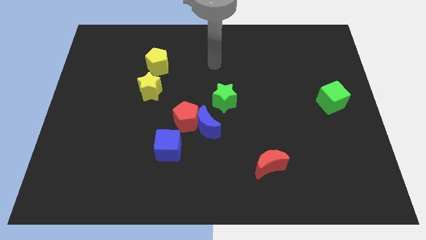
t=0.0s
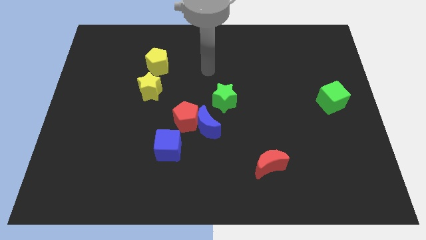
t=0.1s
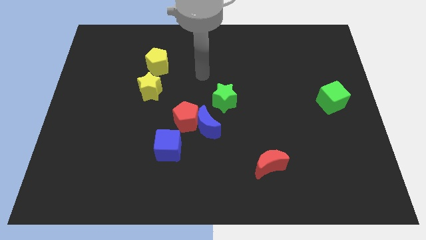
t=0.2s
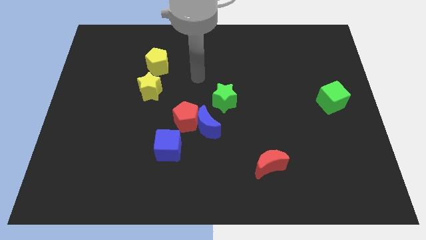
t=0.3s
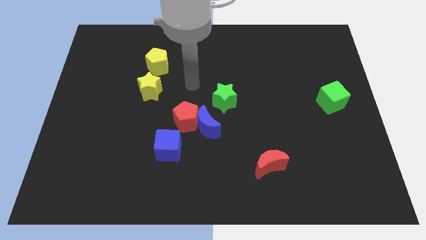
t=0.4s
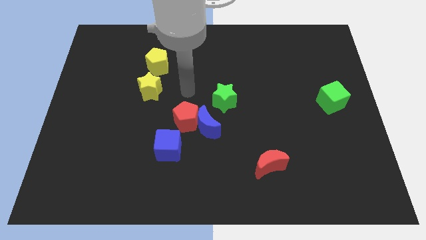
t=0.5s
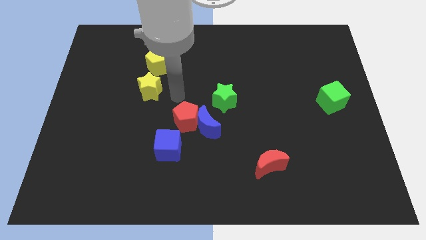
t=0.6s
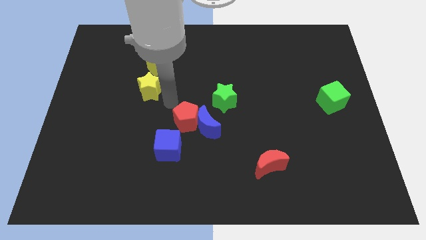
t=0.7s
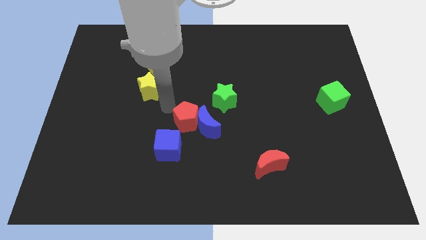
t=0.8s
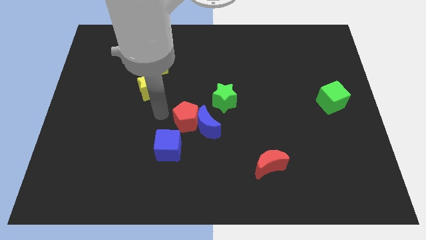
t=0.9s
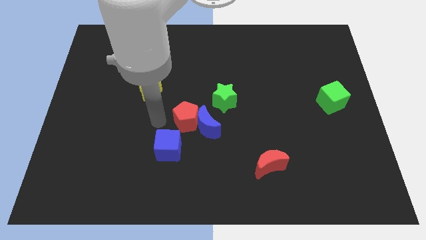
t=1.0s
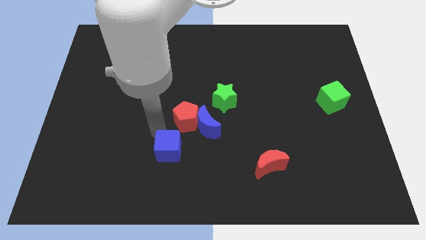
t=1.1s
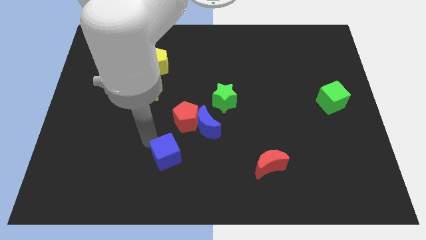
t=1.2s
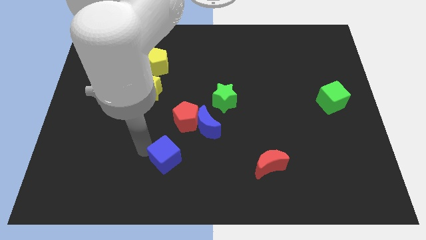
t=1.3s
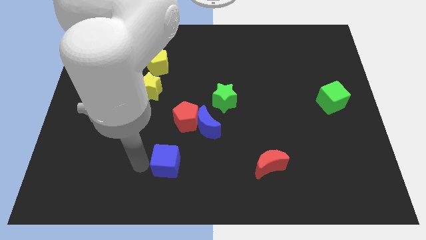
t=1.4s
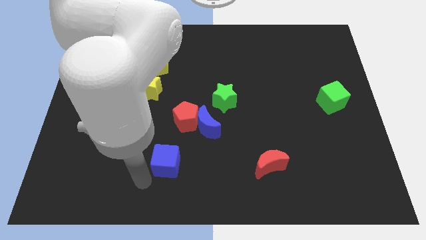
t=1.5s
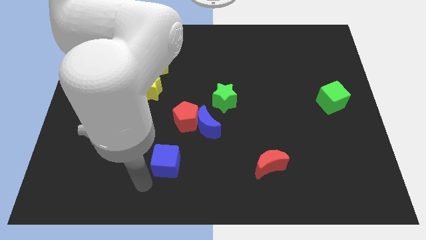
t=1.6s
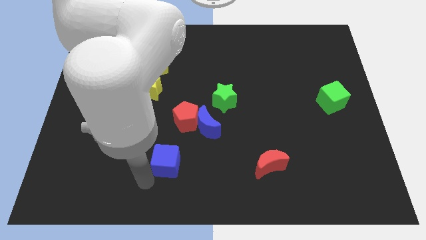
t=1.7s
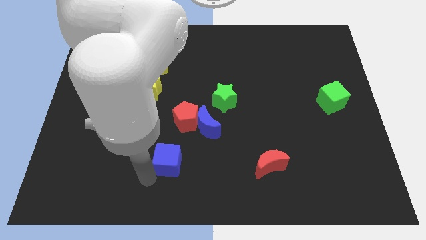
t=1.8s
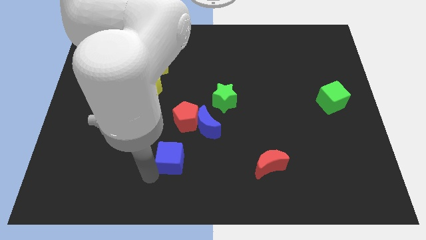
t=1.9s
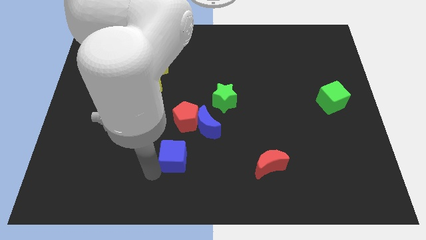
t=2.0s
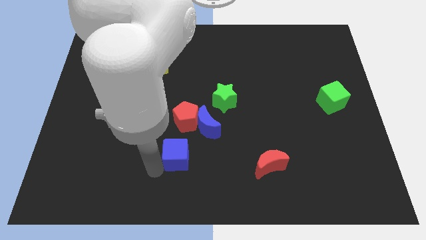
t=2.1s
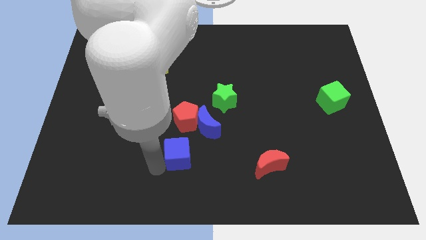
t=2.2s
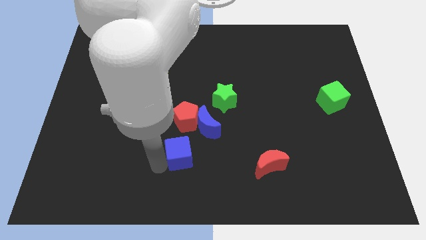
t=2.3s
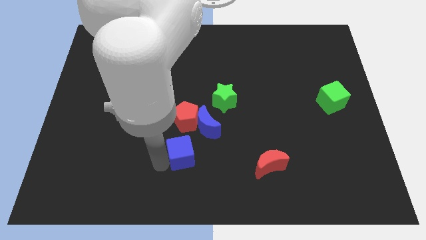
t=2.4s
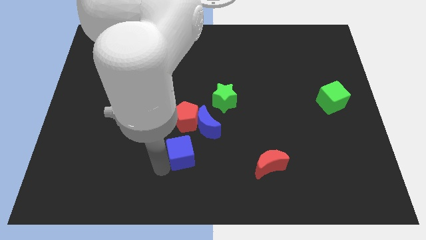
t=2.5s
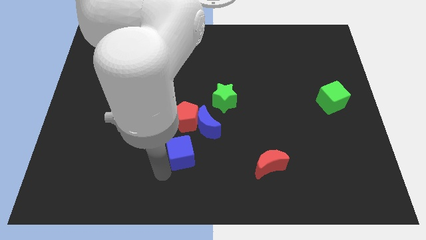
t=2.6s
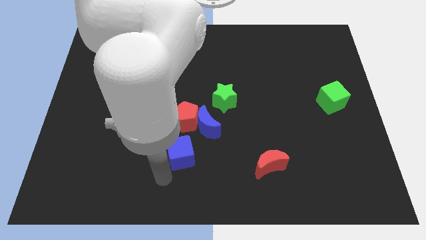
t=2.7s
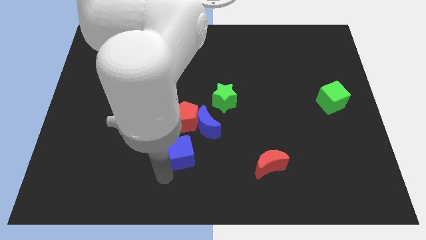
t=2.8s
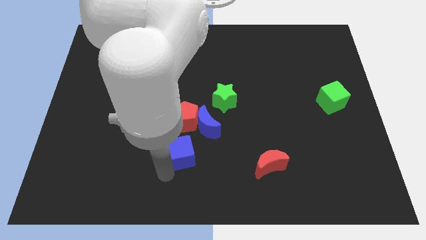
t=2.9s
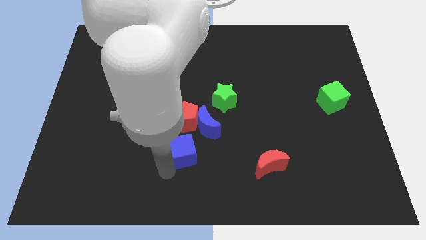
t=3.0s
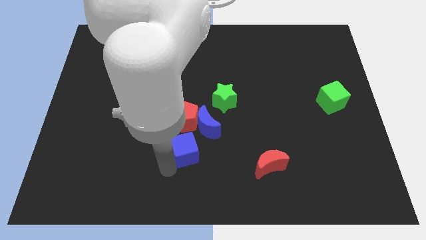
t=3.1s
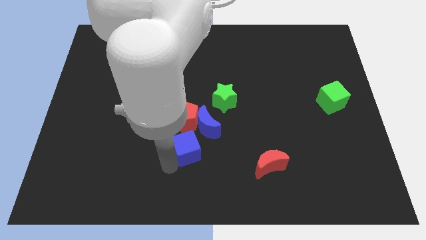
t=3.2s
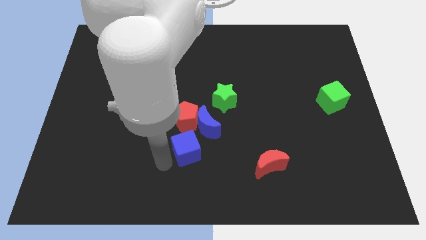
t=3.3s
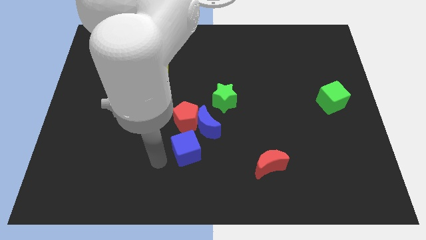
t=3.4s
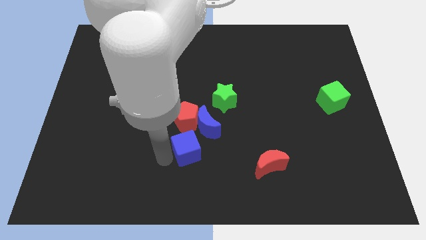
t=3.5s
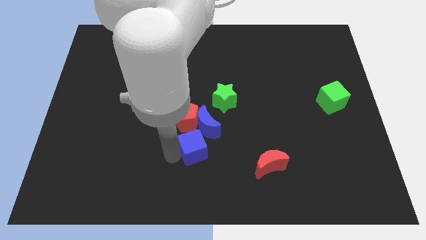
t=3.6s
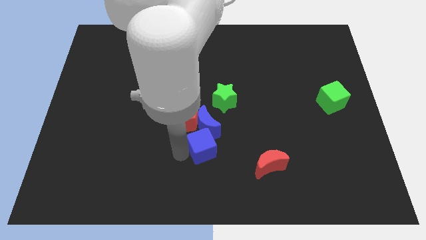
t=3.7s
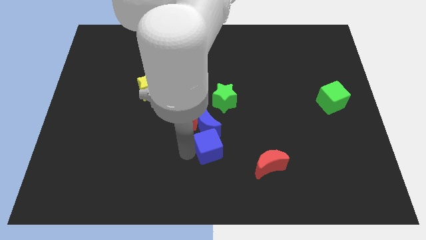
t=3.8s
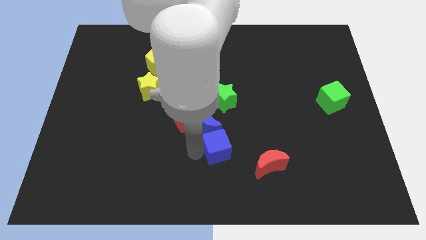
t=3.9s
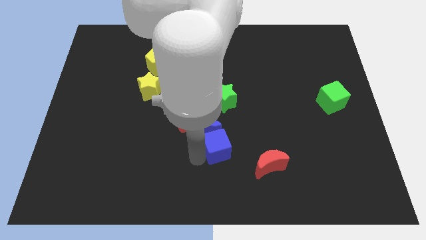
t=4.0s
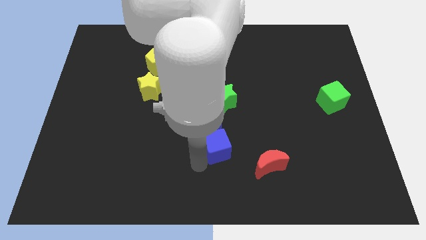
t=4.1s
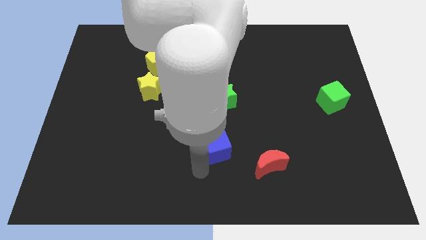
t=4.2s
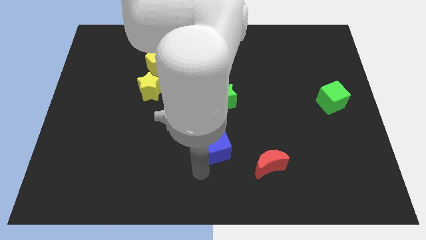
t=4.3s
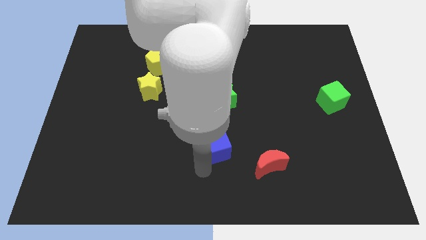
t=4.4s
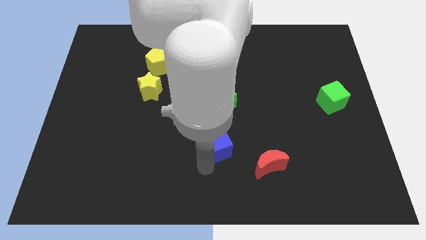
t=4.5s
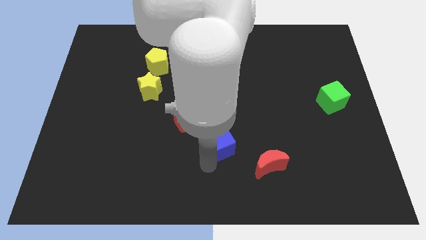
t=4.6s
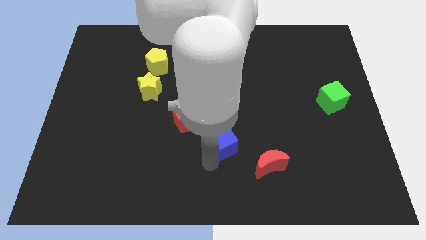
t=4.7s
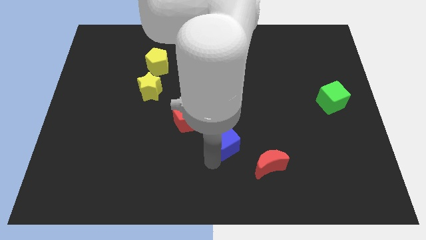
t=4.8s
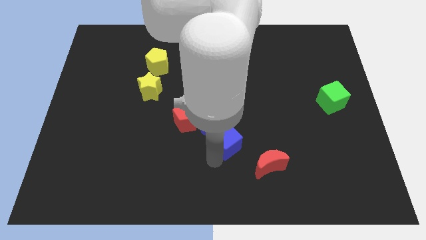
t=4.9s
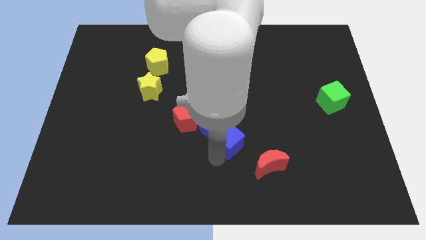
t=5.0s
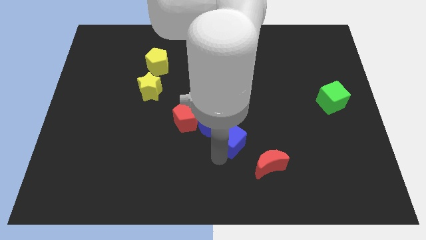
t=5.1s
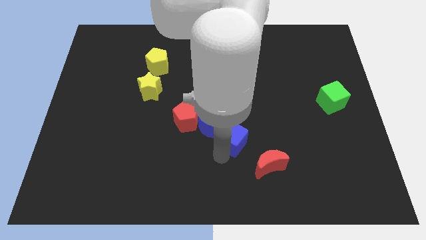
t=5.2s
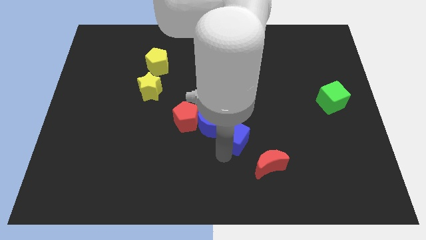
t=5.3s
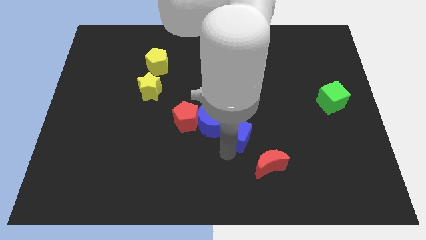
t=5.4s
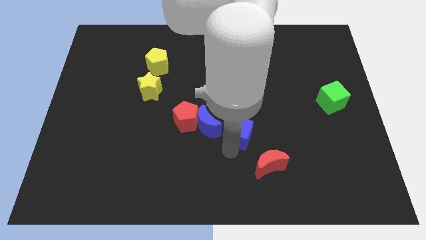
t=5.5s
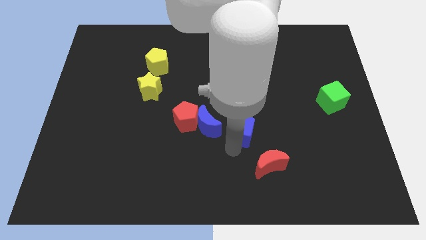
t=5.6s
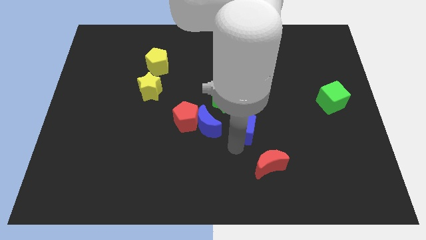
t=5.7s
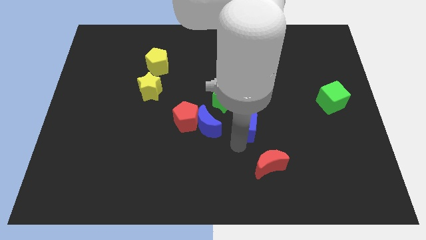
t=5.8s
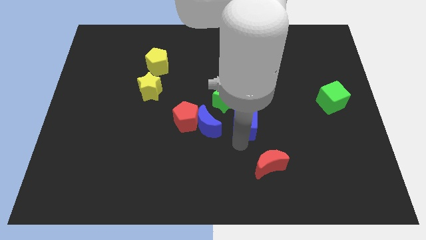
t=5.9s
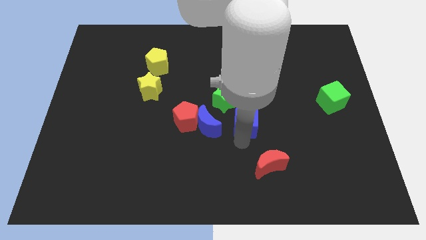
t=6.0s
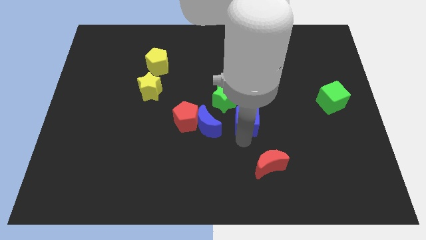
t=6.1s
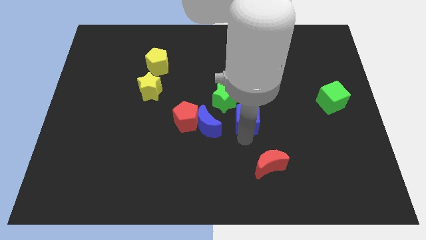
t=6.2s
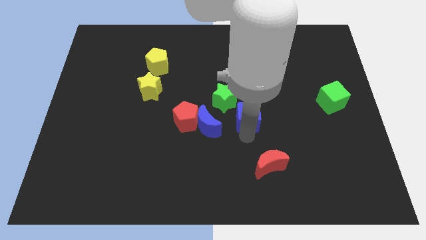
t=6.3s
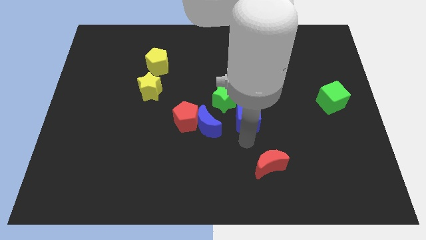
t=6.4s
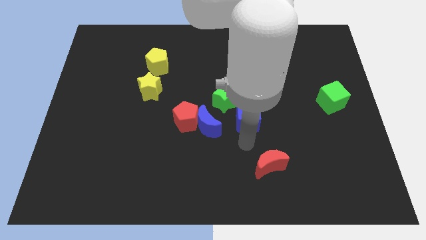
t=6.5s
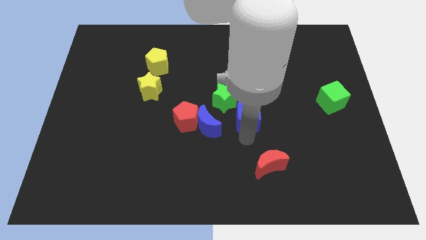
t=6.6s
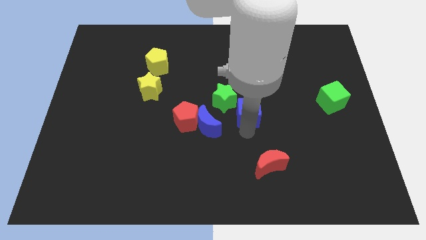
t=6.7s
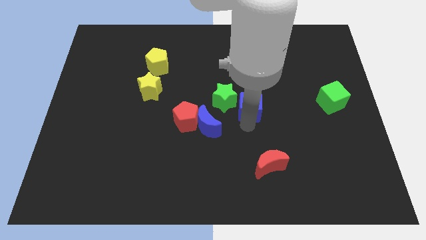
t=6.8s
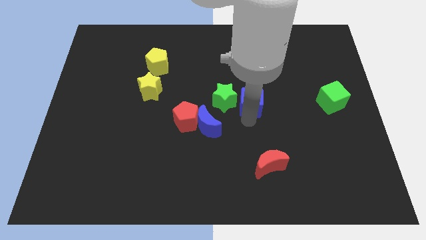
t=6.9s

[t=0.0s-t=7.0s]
slide the blue cube up and right

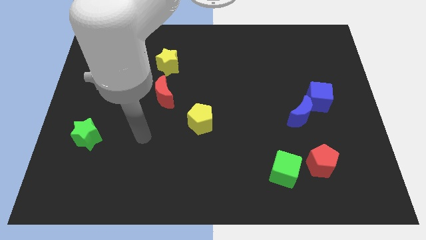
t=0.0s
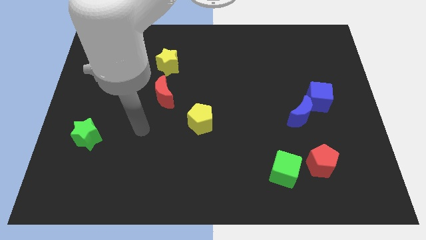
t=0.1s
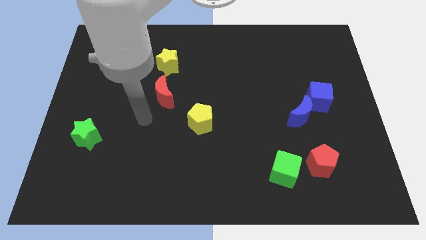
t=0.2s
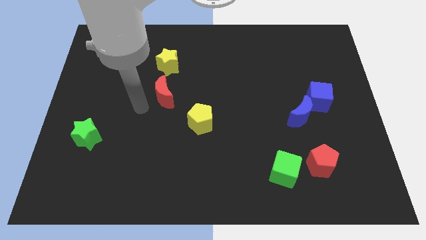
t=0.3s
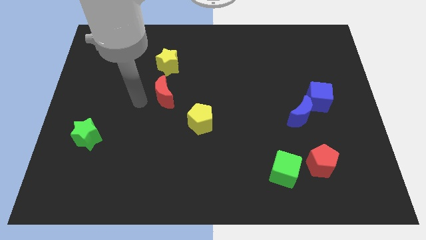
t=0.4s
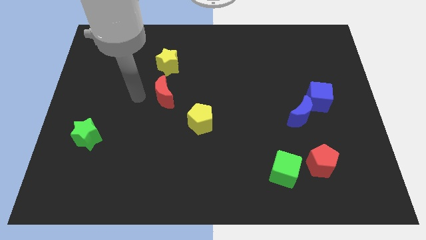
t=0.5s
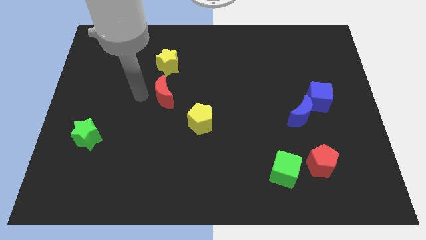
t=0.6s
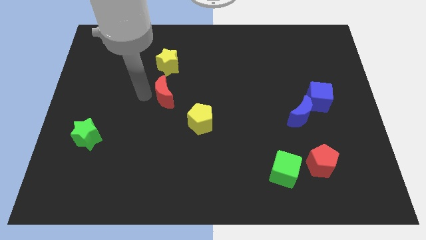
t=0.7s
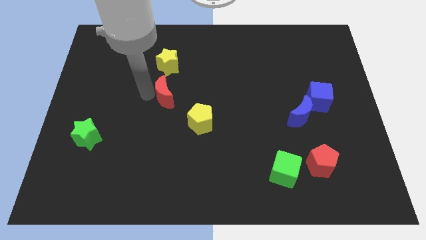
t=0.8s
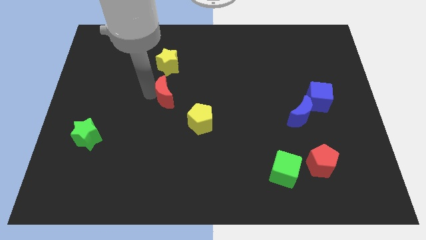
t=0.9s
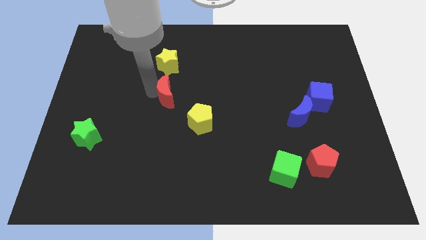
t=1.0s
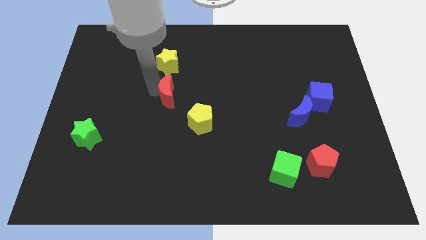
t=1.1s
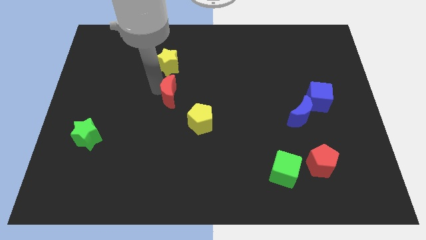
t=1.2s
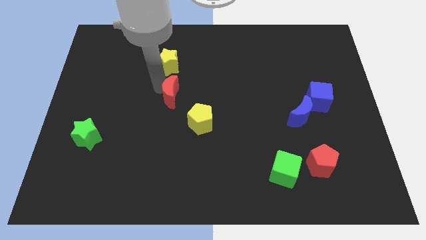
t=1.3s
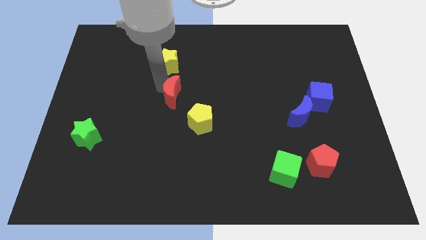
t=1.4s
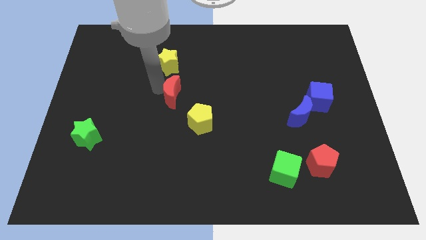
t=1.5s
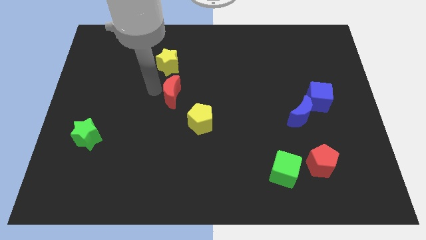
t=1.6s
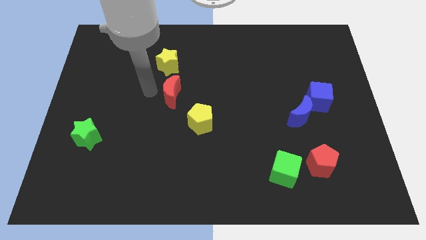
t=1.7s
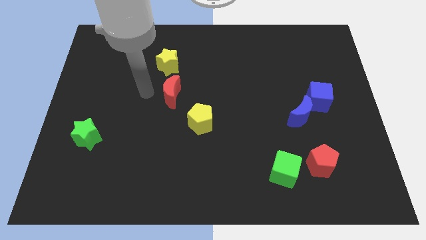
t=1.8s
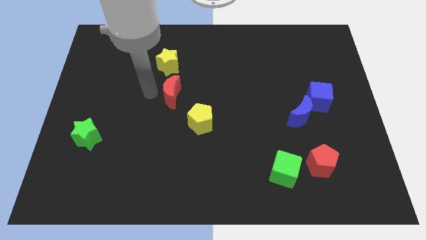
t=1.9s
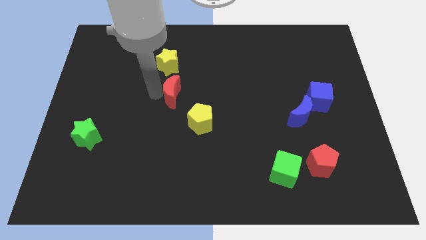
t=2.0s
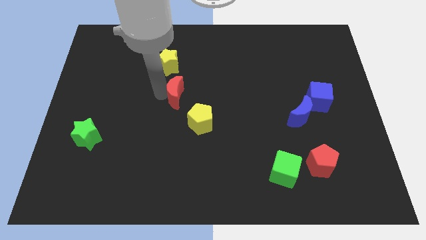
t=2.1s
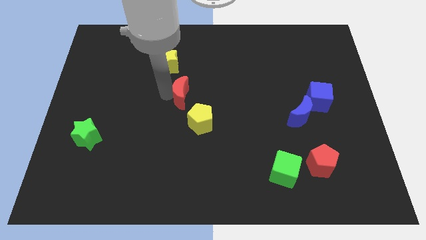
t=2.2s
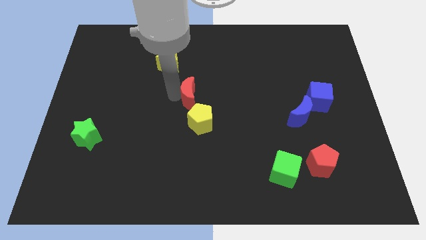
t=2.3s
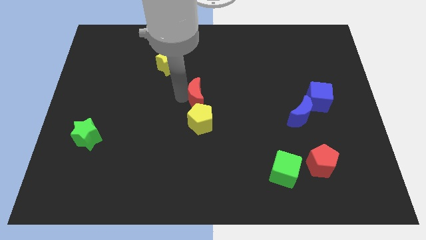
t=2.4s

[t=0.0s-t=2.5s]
push the red moon to the right somewhat
